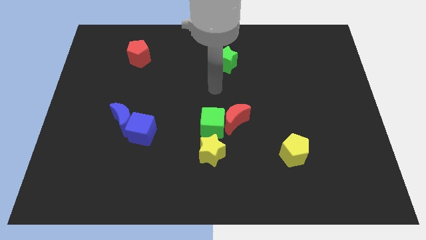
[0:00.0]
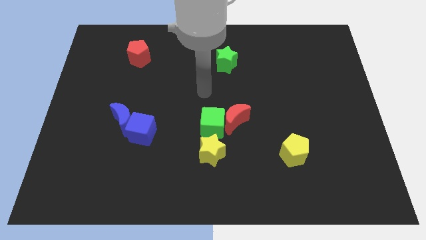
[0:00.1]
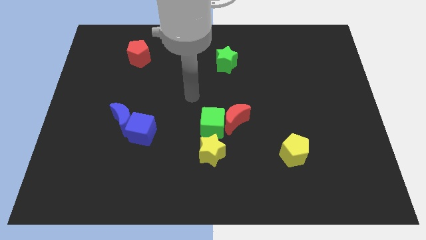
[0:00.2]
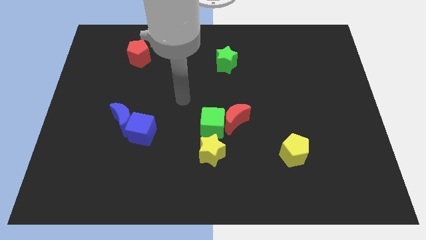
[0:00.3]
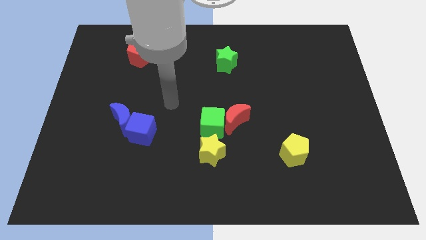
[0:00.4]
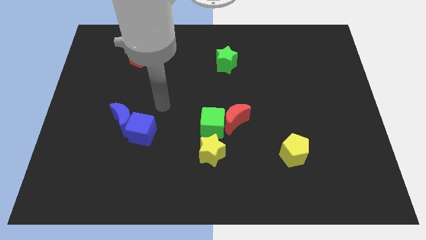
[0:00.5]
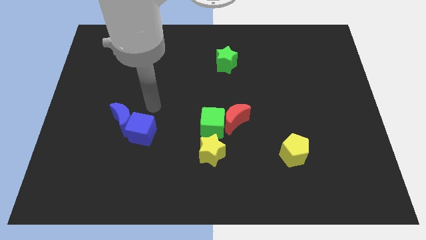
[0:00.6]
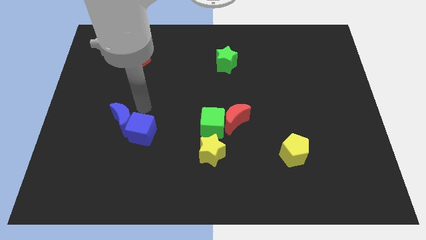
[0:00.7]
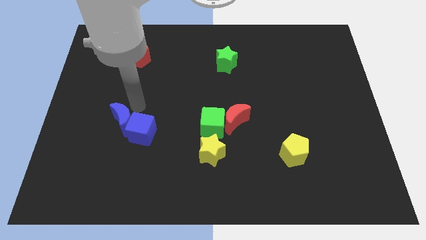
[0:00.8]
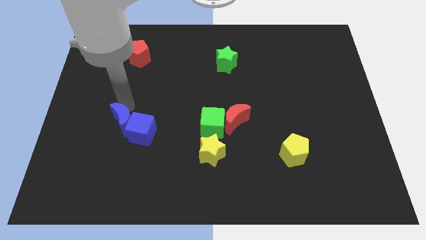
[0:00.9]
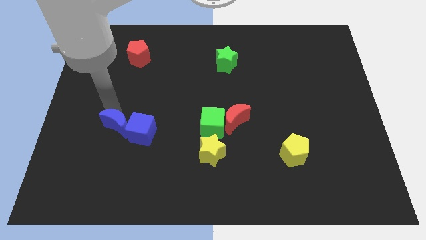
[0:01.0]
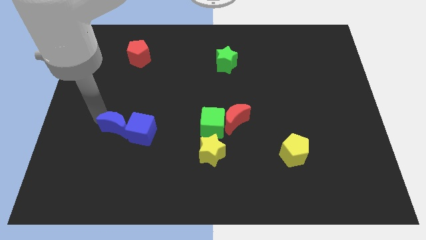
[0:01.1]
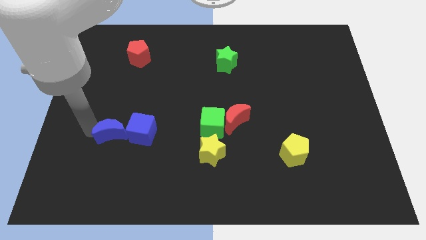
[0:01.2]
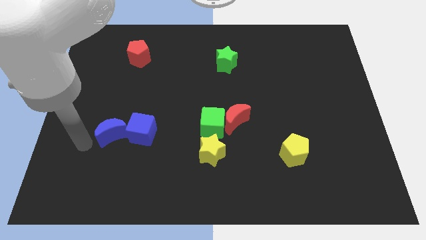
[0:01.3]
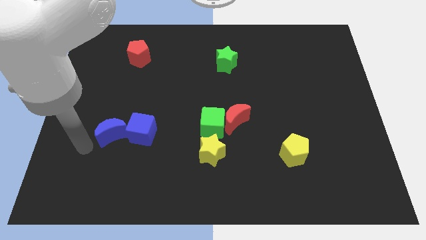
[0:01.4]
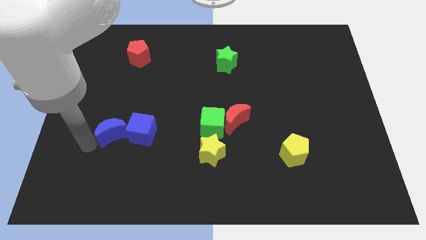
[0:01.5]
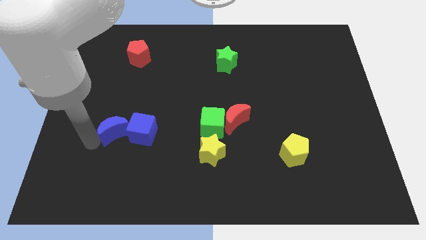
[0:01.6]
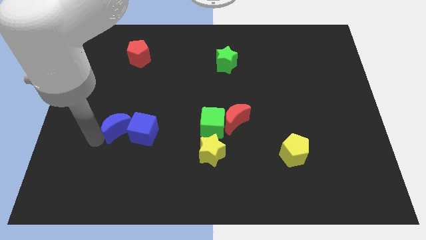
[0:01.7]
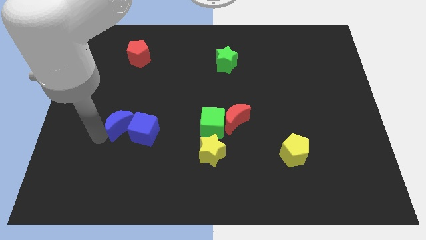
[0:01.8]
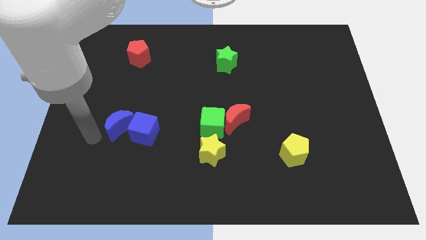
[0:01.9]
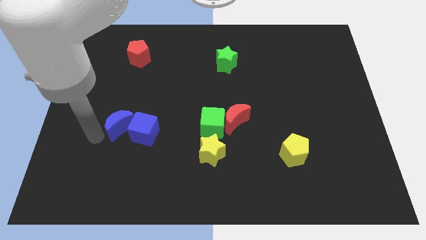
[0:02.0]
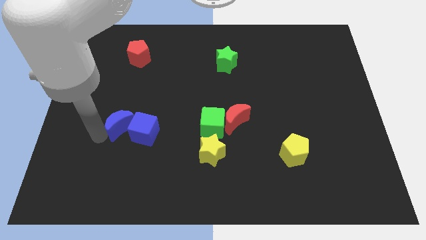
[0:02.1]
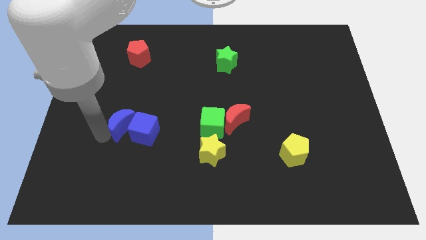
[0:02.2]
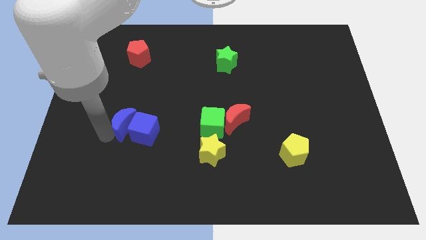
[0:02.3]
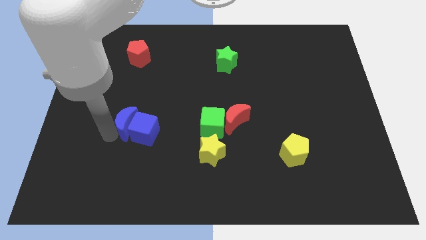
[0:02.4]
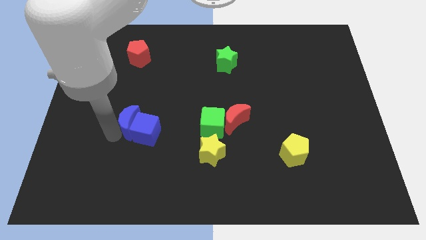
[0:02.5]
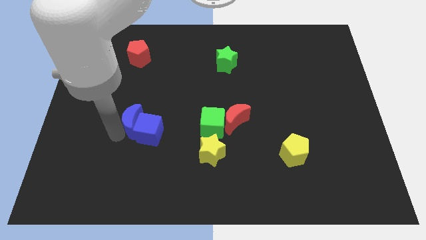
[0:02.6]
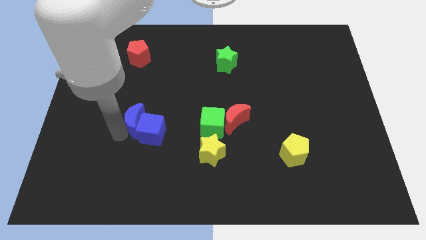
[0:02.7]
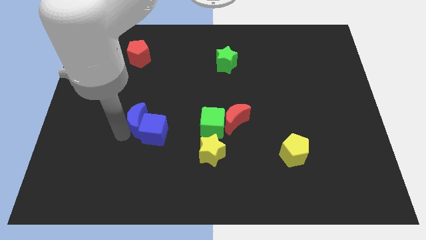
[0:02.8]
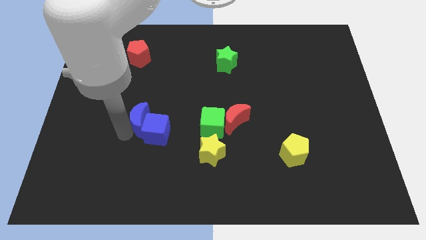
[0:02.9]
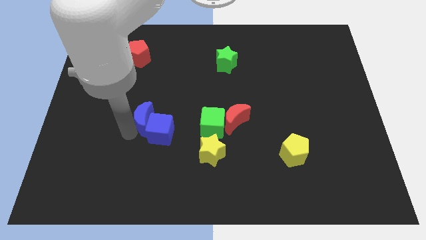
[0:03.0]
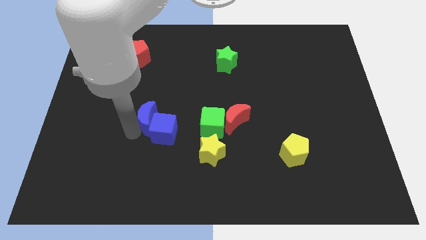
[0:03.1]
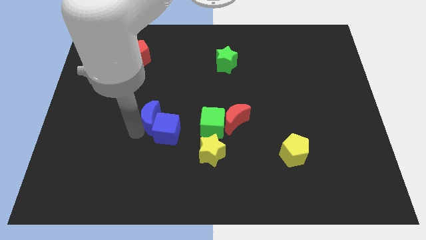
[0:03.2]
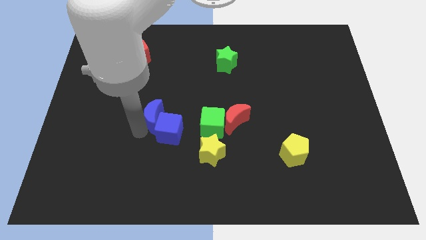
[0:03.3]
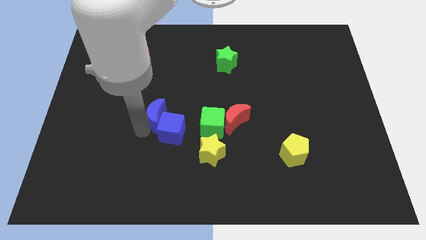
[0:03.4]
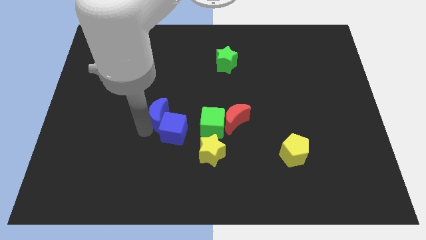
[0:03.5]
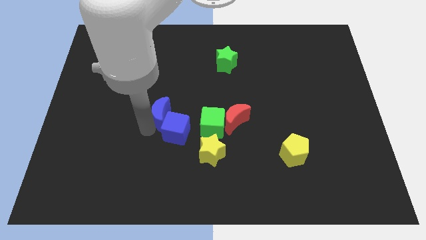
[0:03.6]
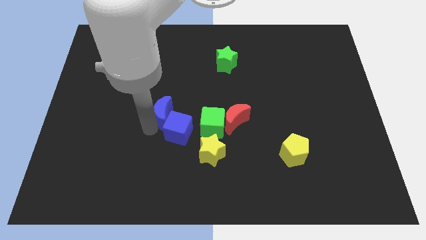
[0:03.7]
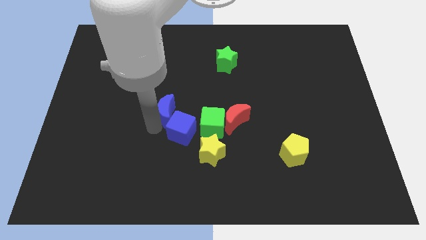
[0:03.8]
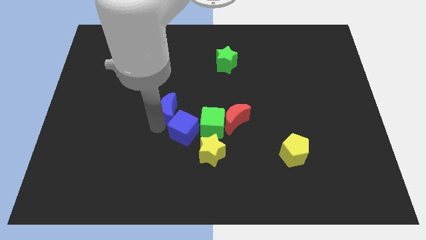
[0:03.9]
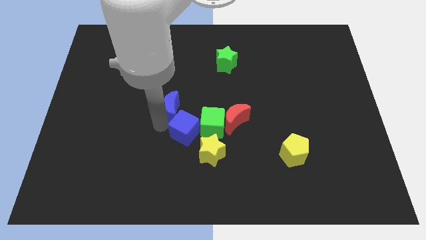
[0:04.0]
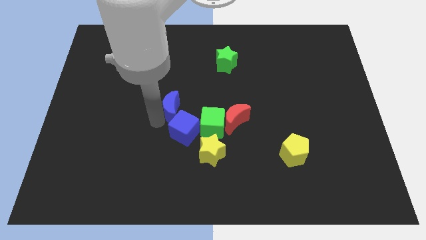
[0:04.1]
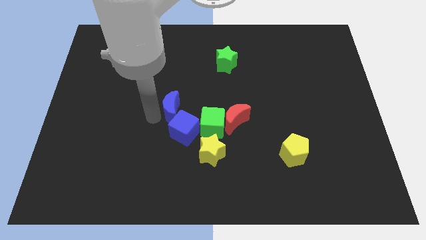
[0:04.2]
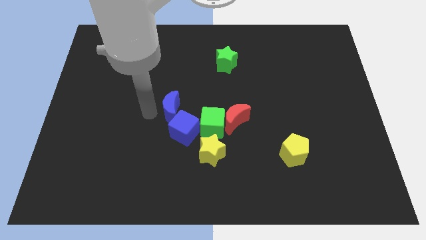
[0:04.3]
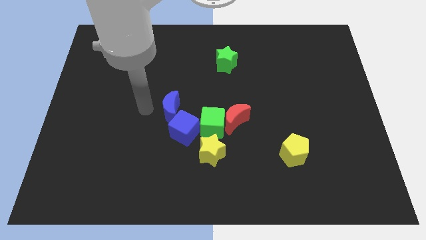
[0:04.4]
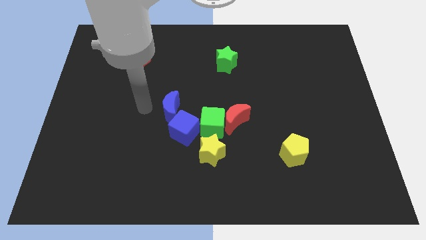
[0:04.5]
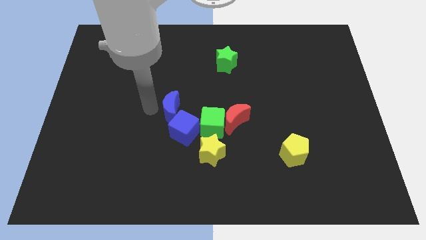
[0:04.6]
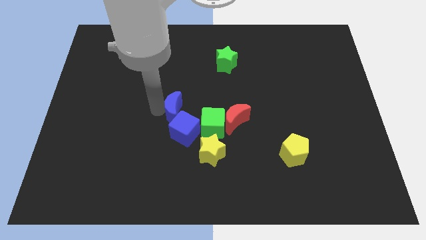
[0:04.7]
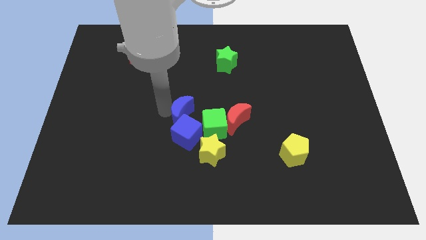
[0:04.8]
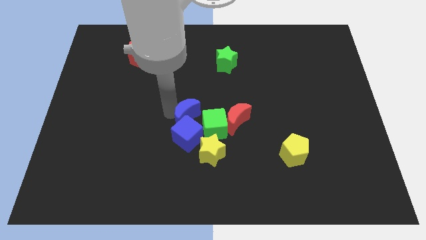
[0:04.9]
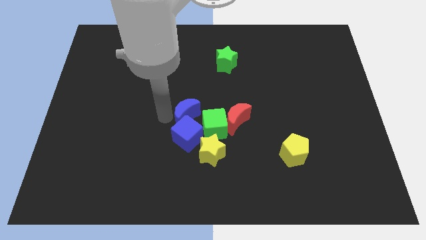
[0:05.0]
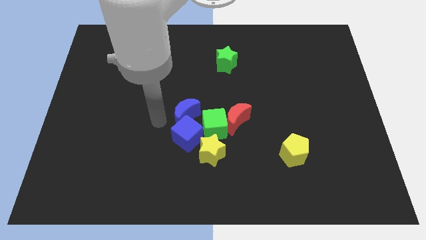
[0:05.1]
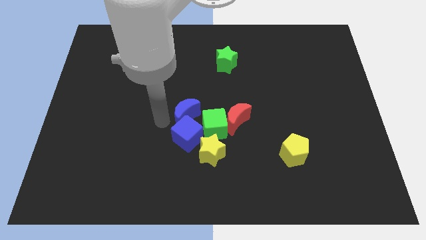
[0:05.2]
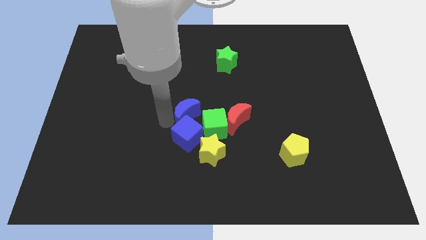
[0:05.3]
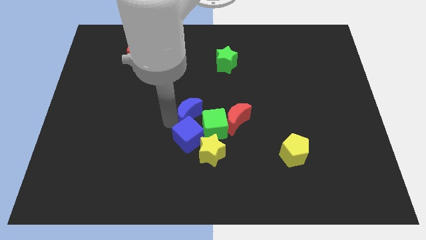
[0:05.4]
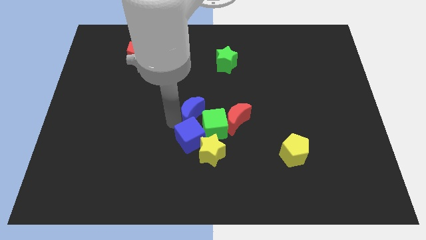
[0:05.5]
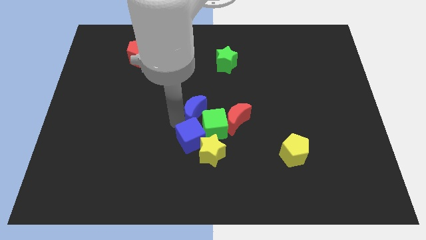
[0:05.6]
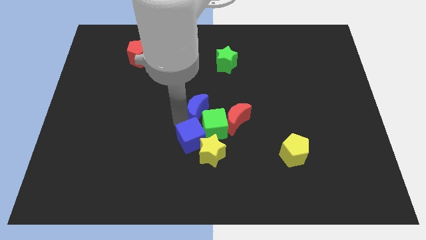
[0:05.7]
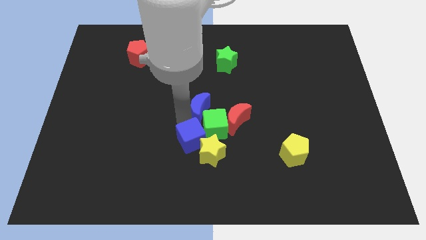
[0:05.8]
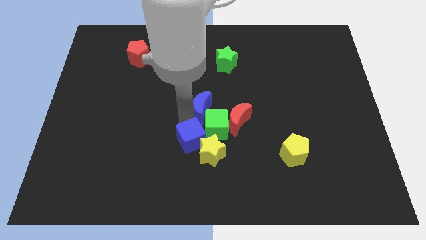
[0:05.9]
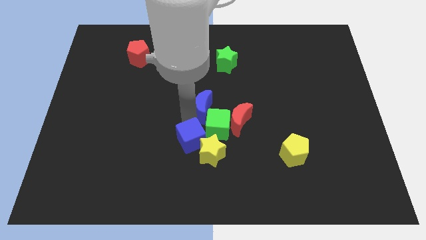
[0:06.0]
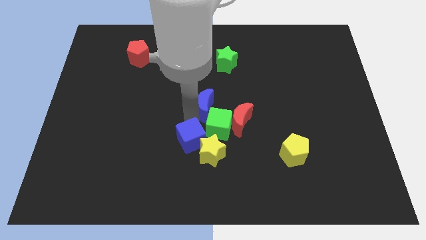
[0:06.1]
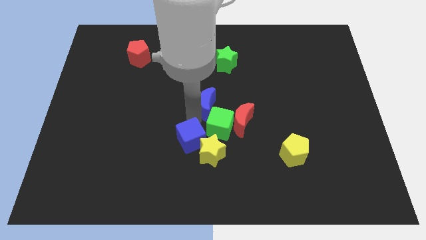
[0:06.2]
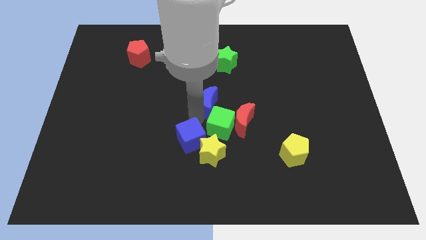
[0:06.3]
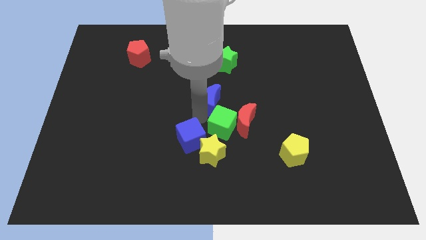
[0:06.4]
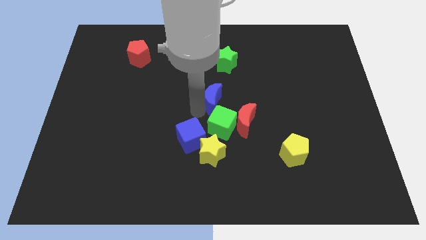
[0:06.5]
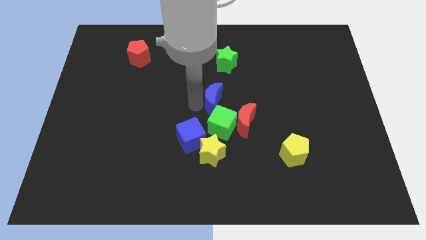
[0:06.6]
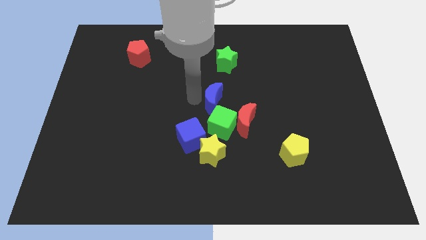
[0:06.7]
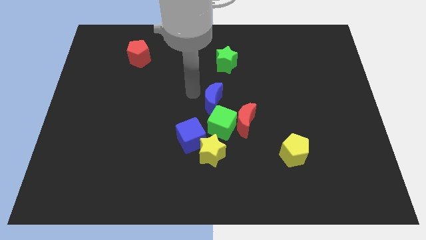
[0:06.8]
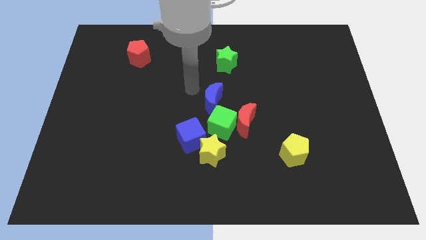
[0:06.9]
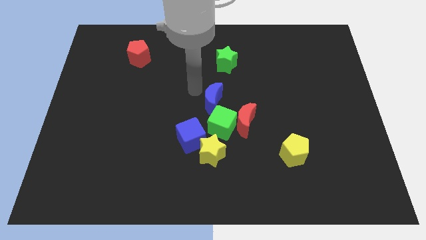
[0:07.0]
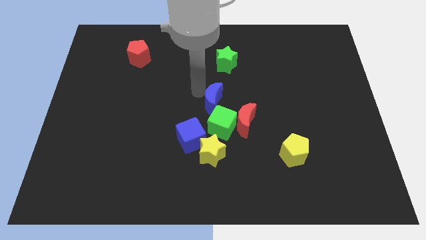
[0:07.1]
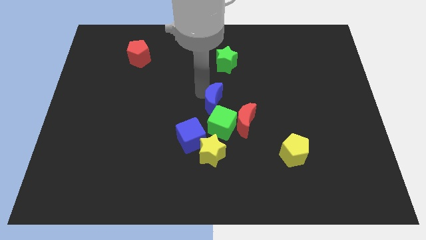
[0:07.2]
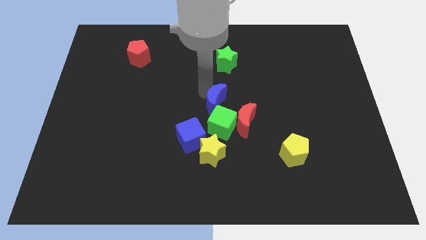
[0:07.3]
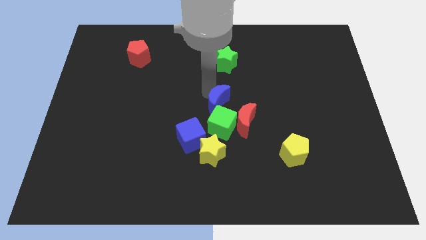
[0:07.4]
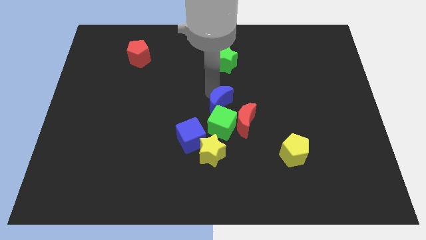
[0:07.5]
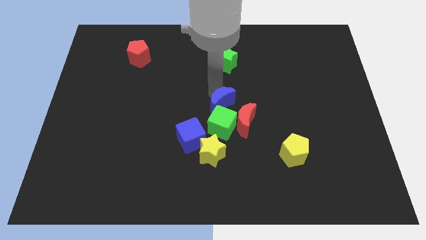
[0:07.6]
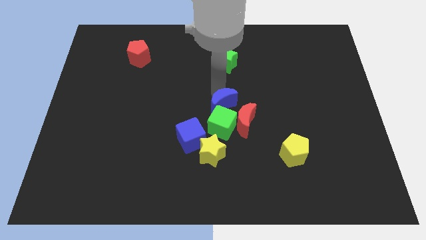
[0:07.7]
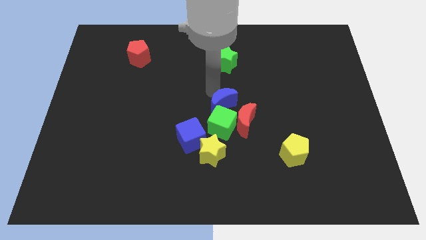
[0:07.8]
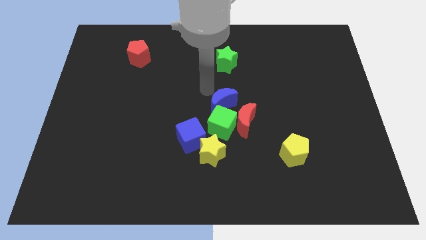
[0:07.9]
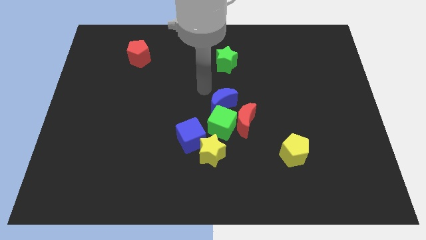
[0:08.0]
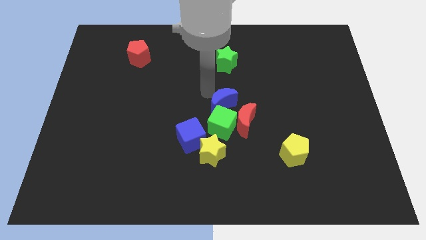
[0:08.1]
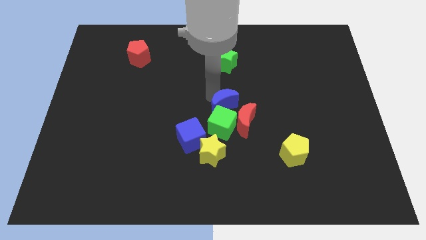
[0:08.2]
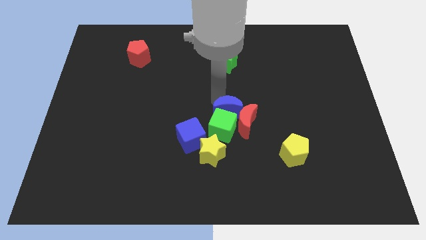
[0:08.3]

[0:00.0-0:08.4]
put the blue moon close to the red moon
